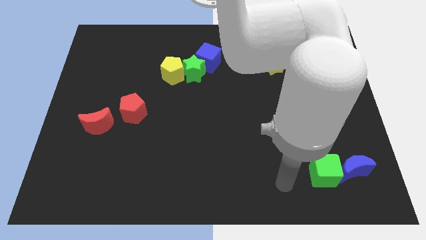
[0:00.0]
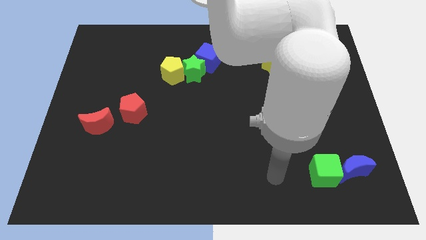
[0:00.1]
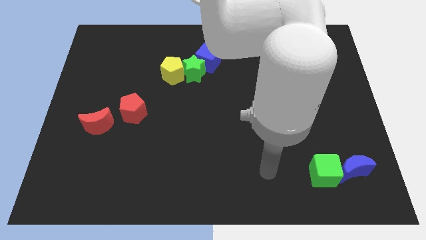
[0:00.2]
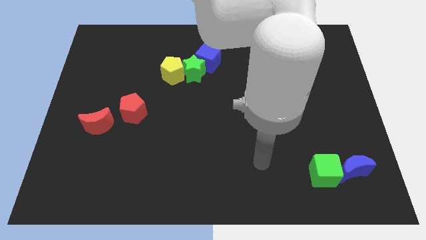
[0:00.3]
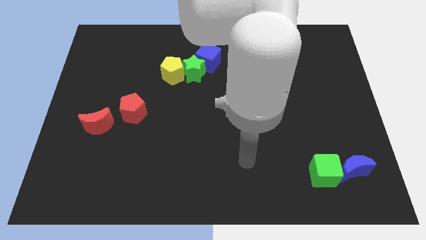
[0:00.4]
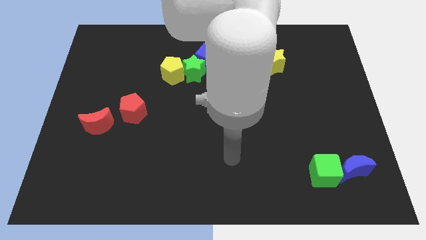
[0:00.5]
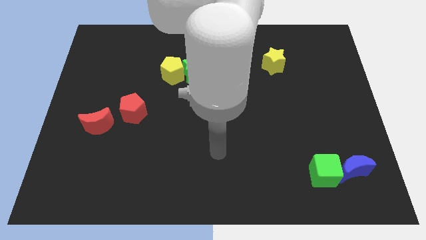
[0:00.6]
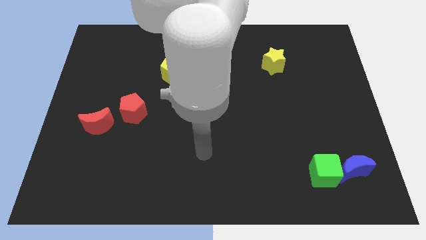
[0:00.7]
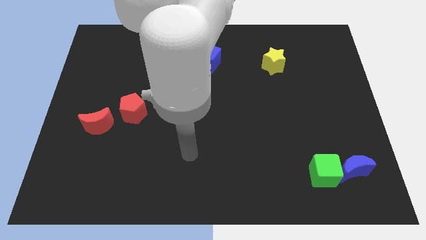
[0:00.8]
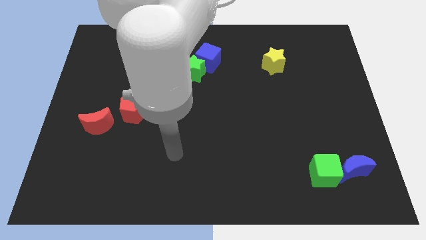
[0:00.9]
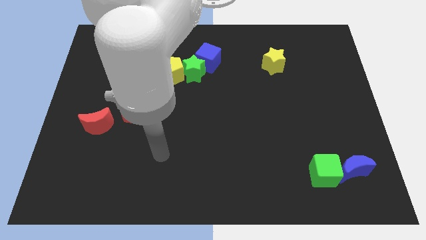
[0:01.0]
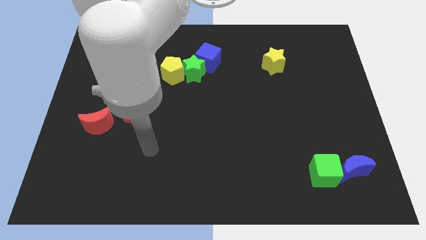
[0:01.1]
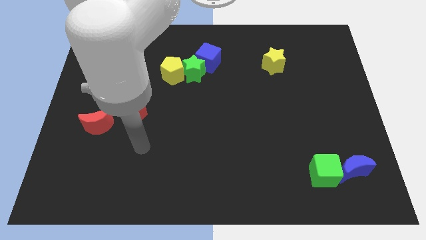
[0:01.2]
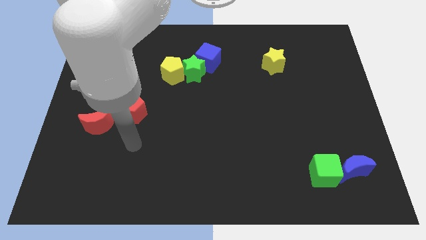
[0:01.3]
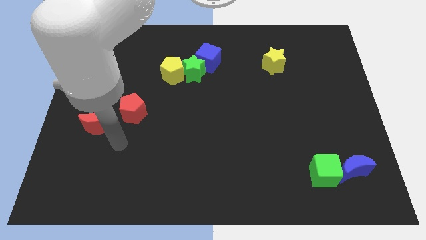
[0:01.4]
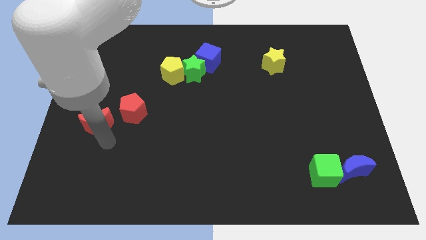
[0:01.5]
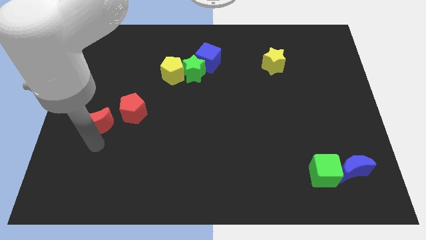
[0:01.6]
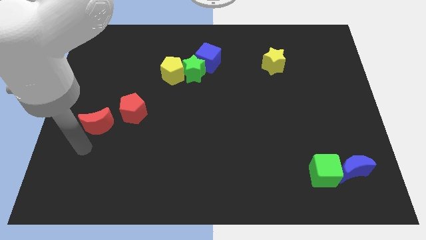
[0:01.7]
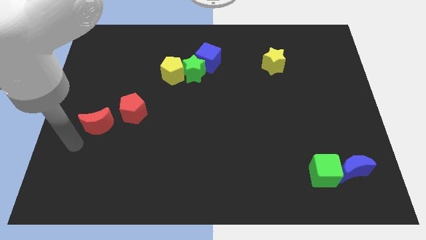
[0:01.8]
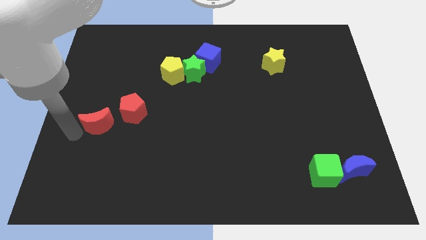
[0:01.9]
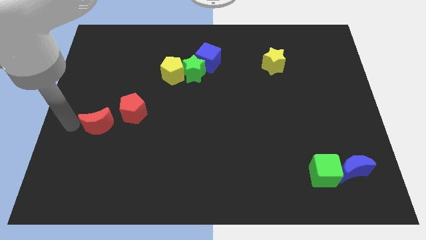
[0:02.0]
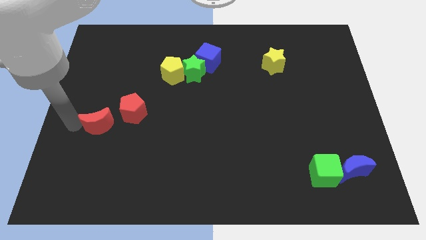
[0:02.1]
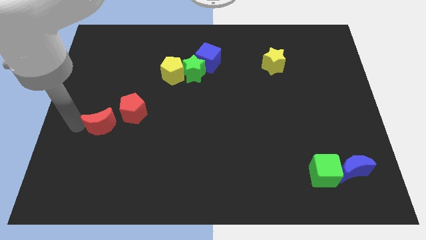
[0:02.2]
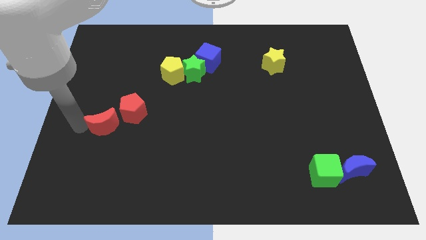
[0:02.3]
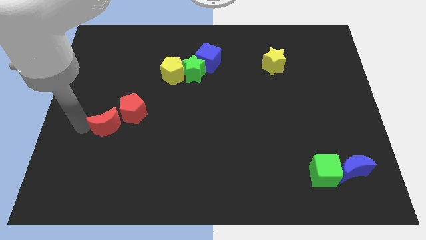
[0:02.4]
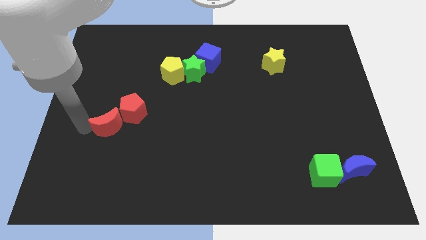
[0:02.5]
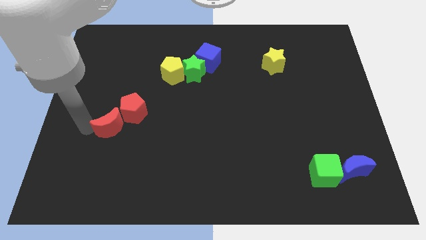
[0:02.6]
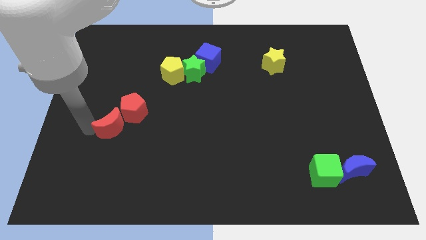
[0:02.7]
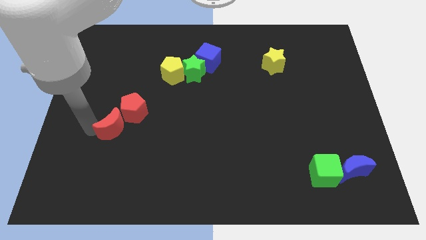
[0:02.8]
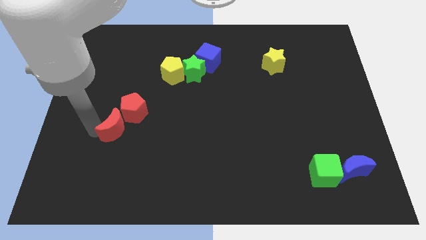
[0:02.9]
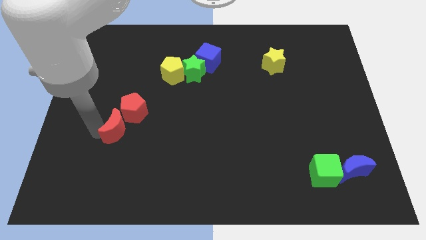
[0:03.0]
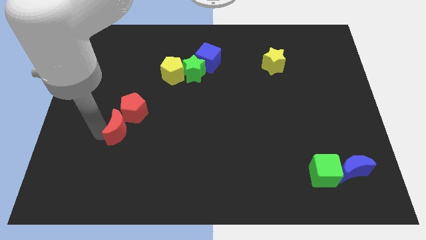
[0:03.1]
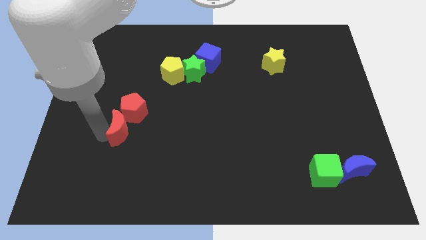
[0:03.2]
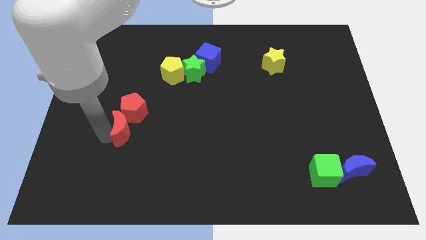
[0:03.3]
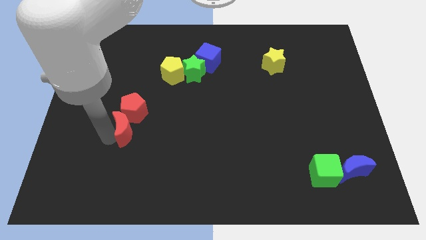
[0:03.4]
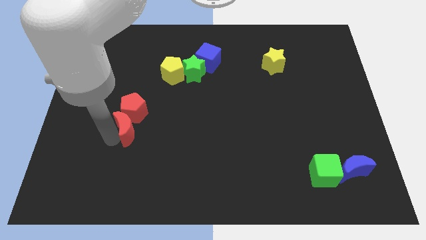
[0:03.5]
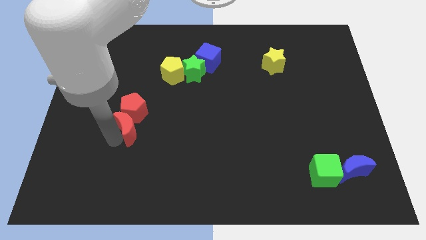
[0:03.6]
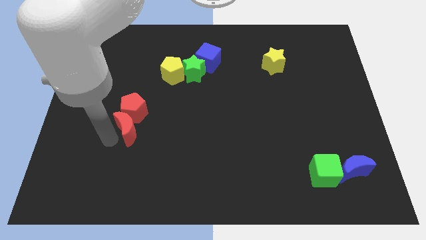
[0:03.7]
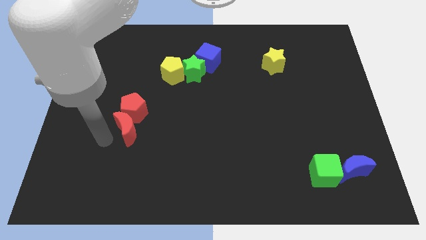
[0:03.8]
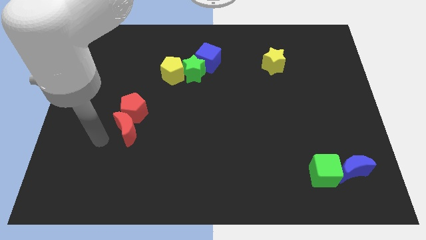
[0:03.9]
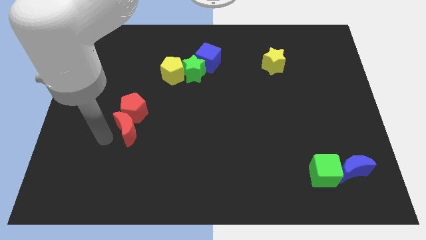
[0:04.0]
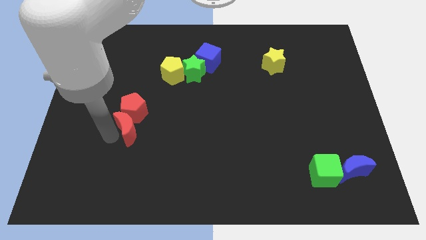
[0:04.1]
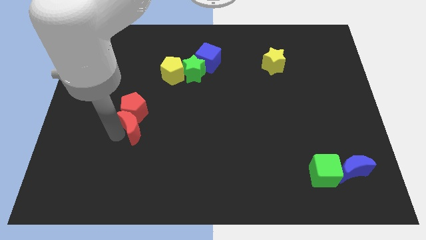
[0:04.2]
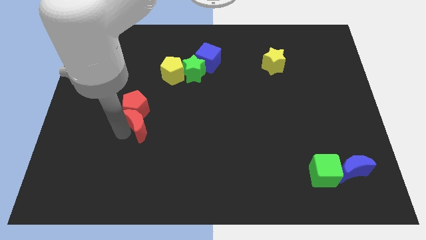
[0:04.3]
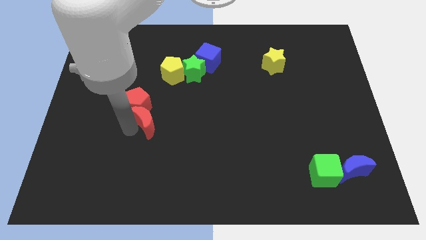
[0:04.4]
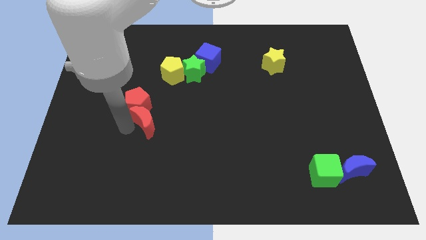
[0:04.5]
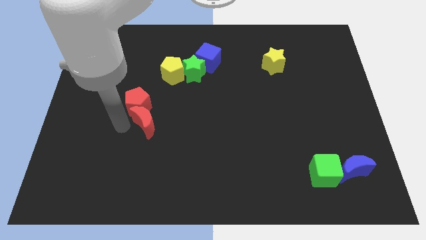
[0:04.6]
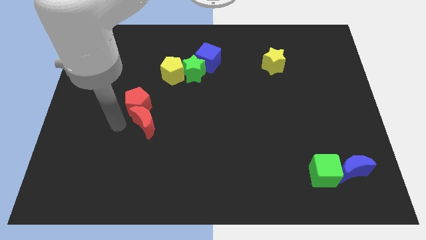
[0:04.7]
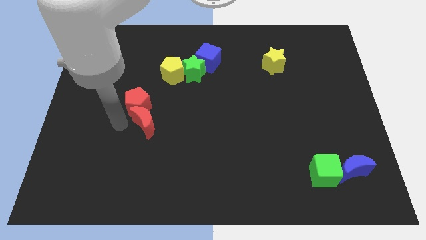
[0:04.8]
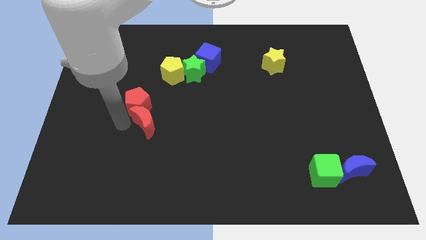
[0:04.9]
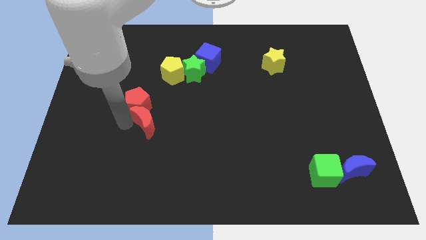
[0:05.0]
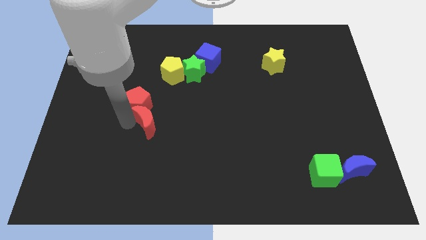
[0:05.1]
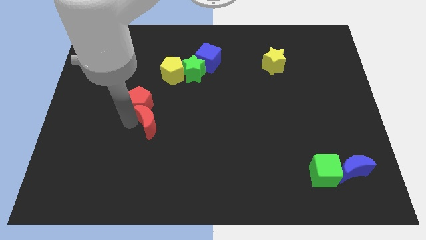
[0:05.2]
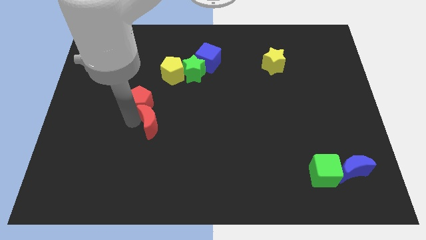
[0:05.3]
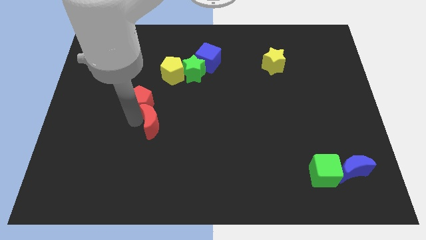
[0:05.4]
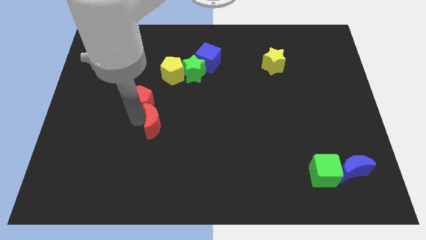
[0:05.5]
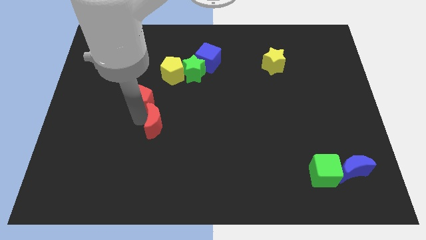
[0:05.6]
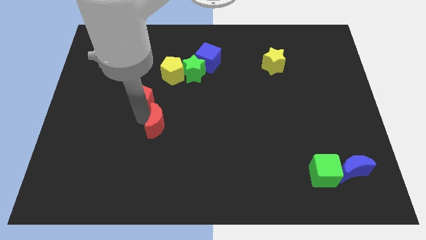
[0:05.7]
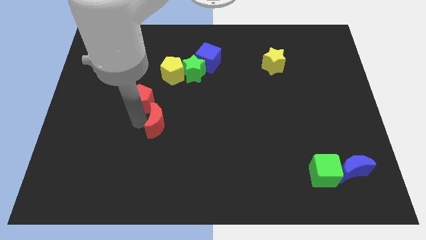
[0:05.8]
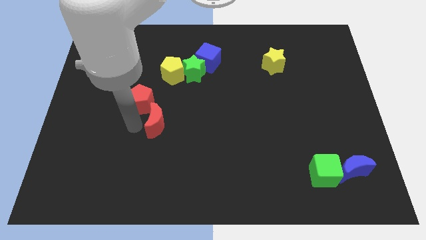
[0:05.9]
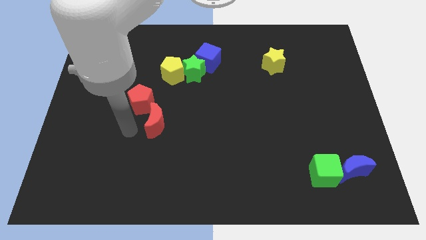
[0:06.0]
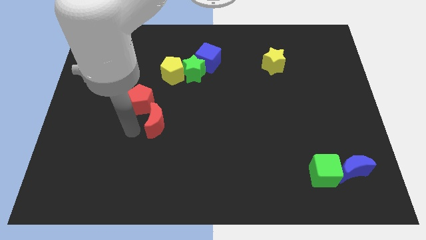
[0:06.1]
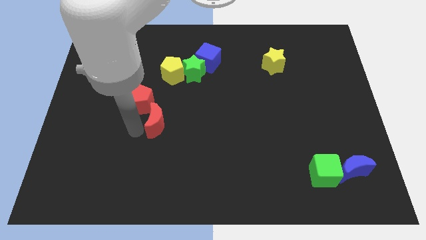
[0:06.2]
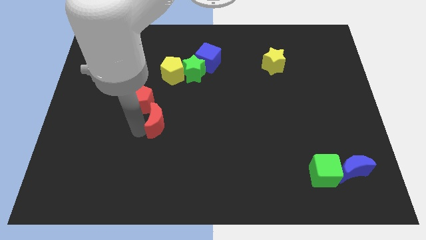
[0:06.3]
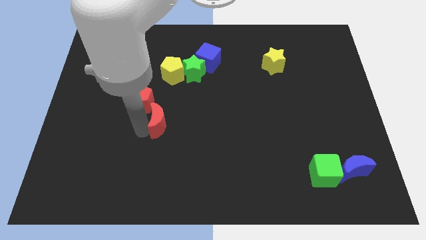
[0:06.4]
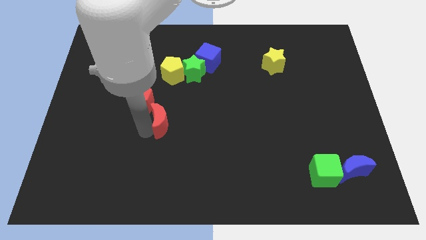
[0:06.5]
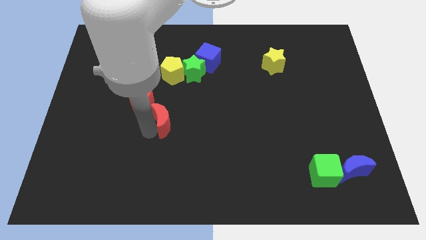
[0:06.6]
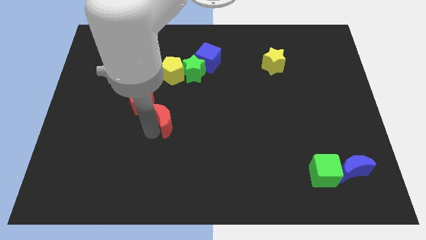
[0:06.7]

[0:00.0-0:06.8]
push the red moon to the middle of the board
